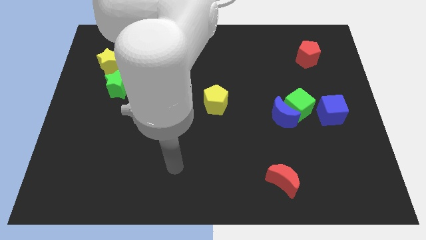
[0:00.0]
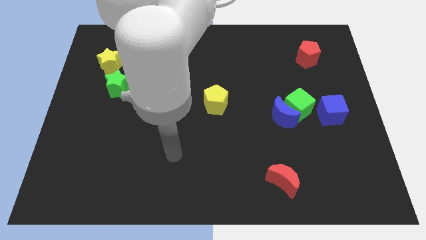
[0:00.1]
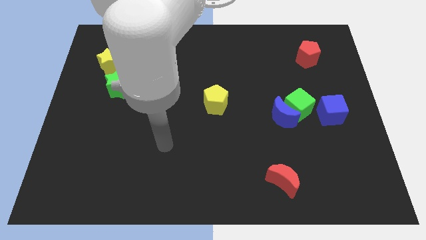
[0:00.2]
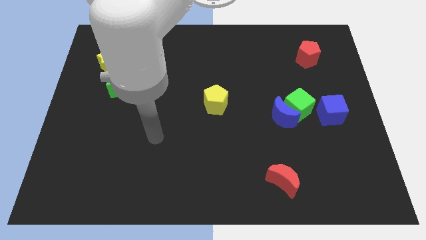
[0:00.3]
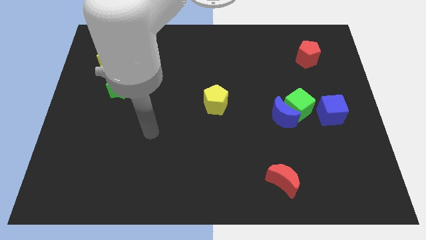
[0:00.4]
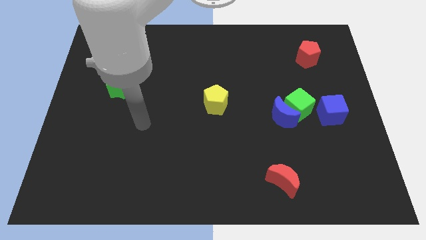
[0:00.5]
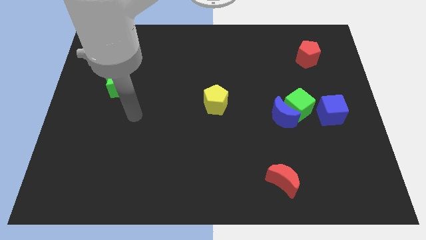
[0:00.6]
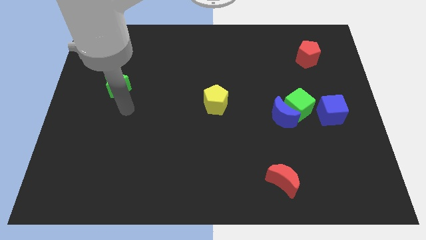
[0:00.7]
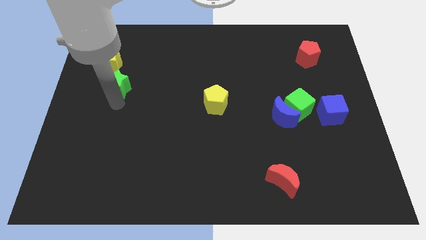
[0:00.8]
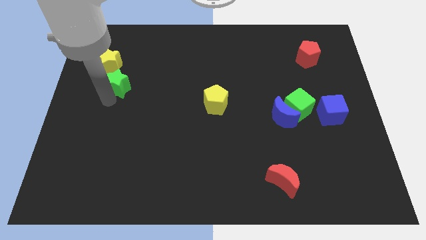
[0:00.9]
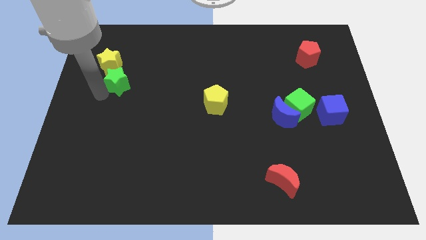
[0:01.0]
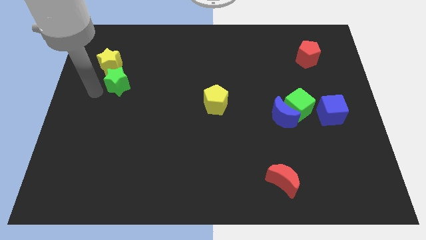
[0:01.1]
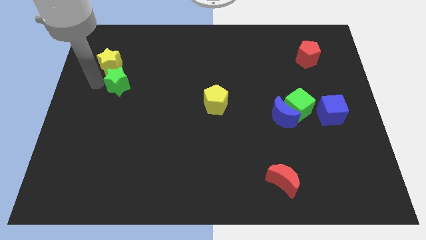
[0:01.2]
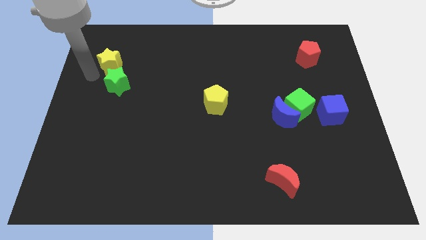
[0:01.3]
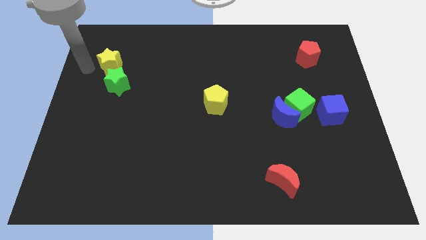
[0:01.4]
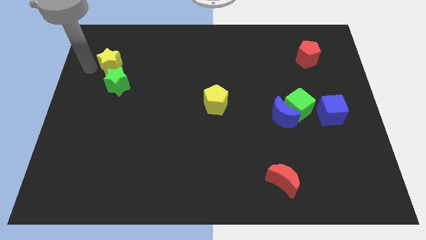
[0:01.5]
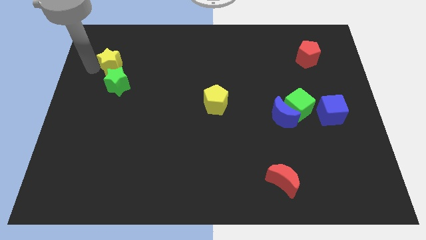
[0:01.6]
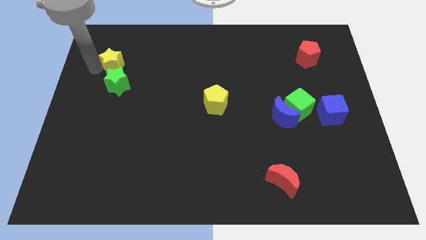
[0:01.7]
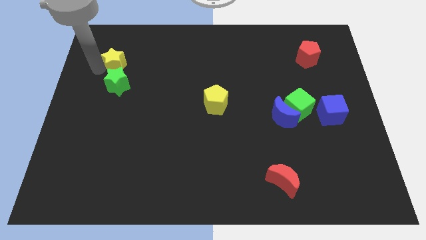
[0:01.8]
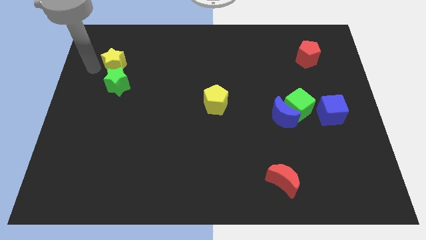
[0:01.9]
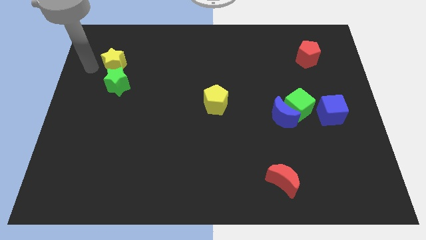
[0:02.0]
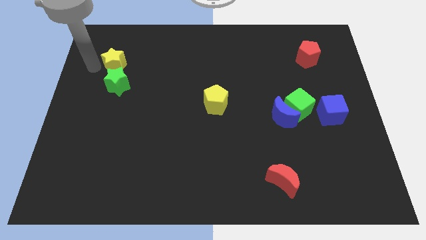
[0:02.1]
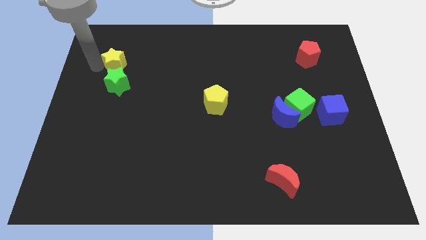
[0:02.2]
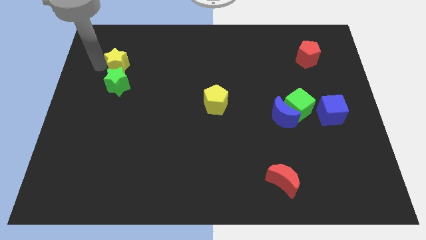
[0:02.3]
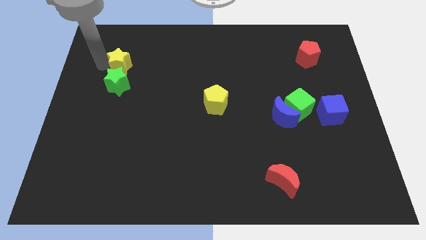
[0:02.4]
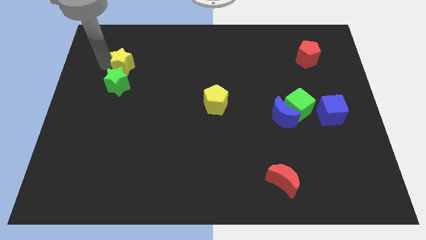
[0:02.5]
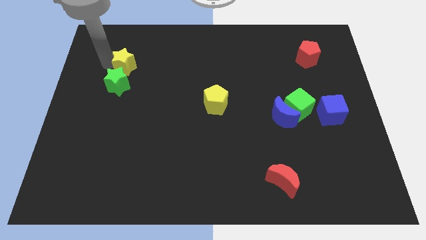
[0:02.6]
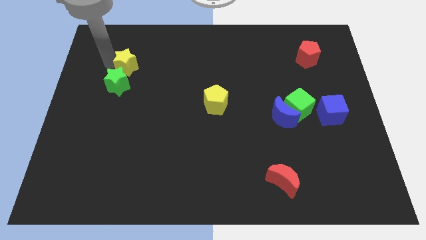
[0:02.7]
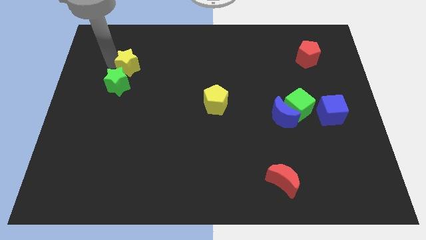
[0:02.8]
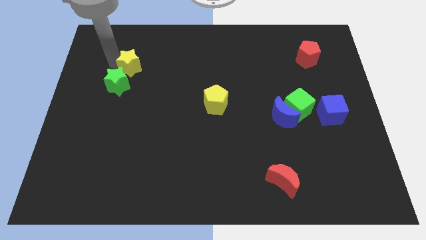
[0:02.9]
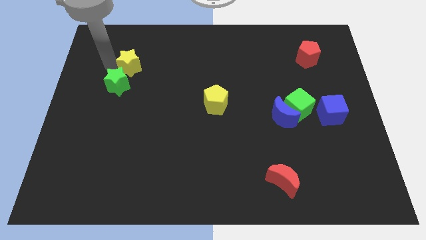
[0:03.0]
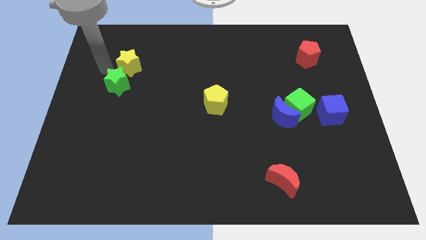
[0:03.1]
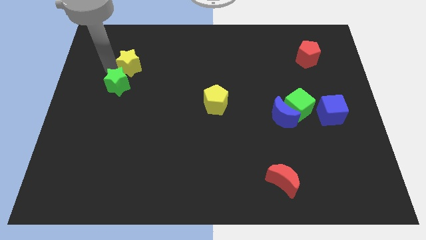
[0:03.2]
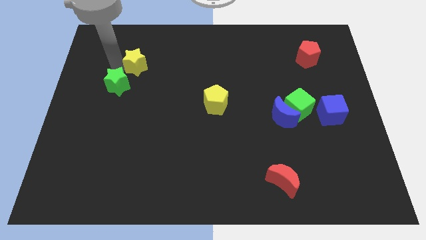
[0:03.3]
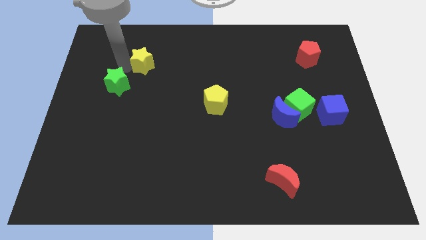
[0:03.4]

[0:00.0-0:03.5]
push the yellow star right a little

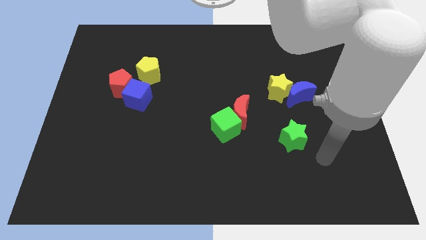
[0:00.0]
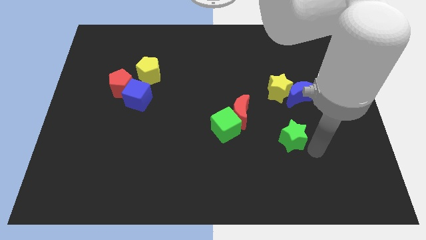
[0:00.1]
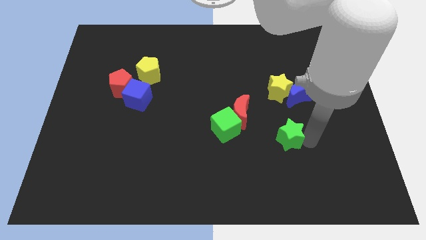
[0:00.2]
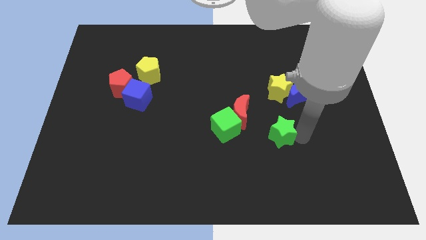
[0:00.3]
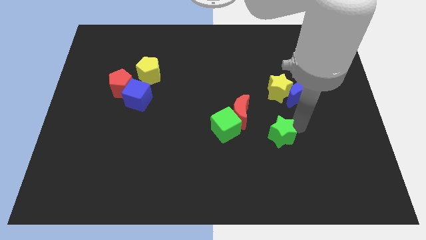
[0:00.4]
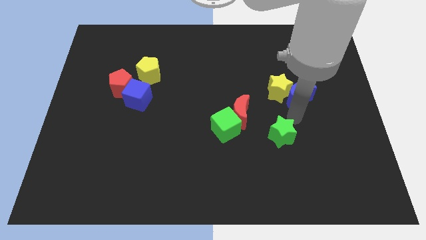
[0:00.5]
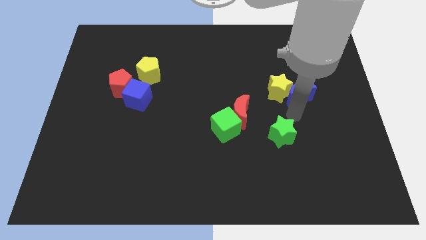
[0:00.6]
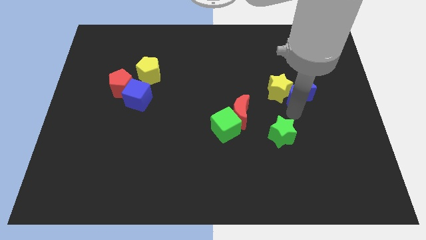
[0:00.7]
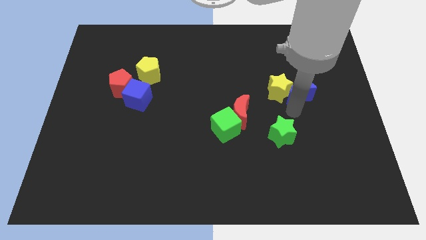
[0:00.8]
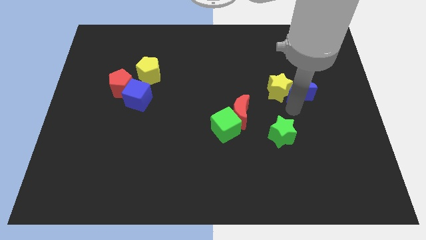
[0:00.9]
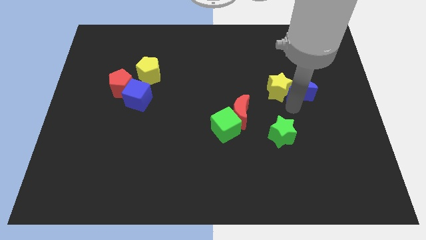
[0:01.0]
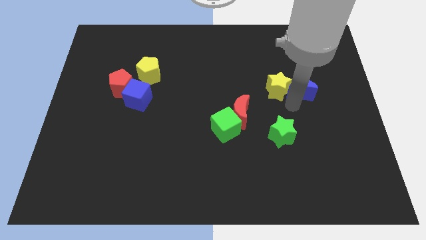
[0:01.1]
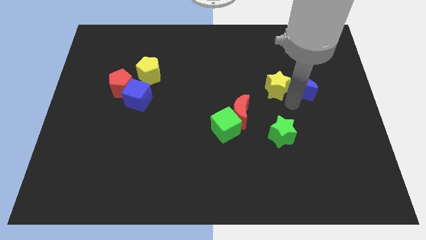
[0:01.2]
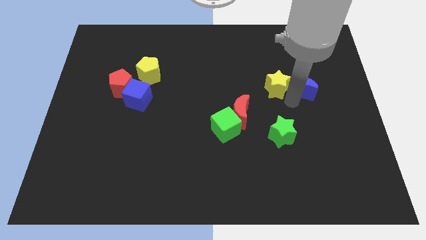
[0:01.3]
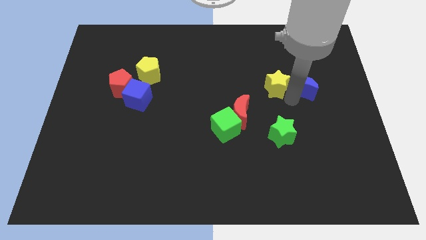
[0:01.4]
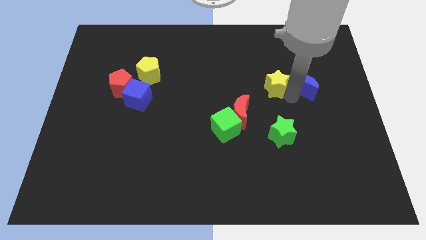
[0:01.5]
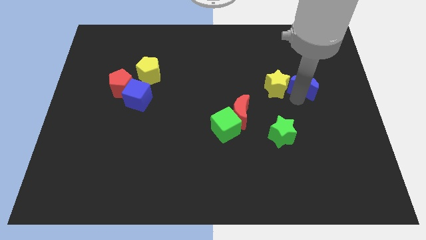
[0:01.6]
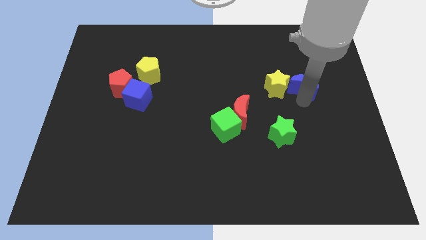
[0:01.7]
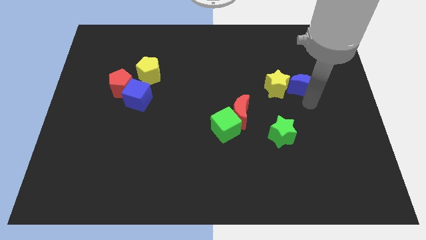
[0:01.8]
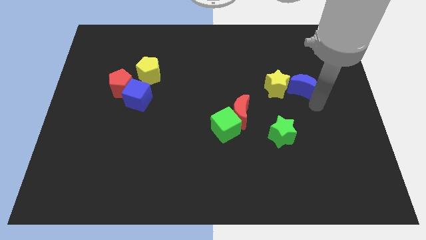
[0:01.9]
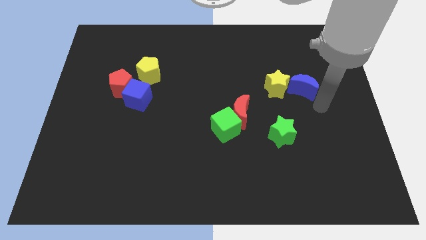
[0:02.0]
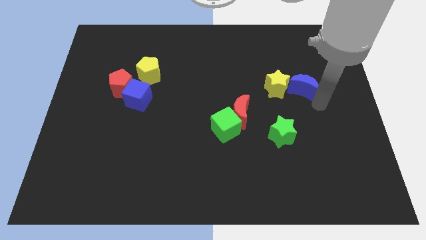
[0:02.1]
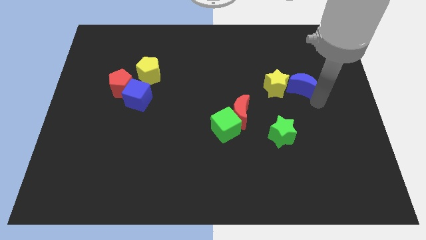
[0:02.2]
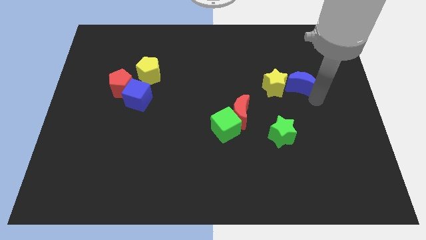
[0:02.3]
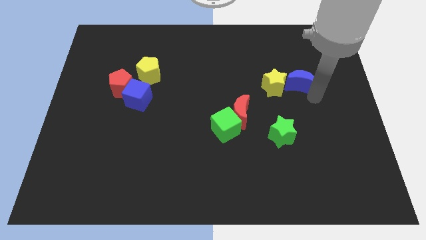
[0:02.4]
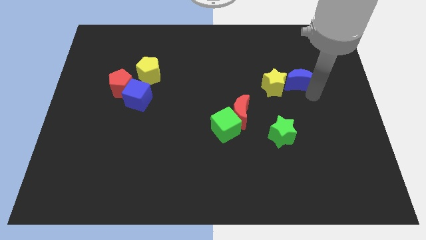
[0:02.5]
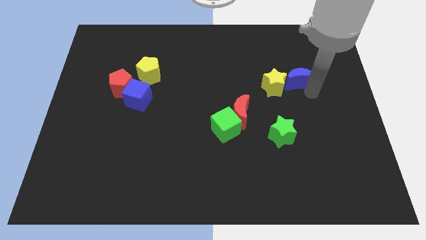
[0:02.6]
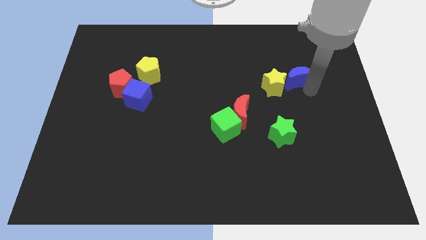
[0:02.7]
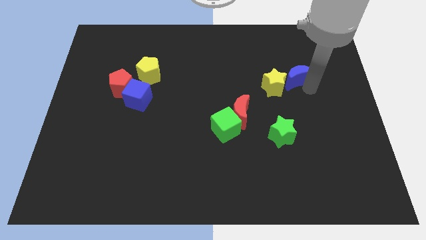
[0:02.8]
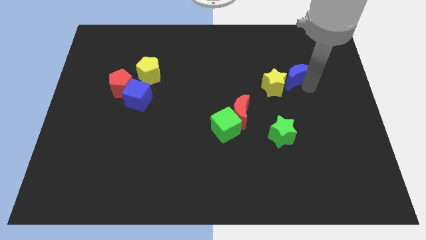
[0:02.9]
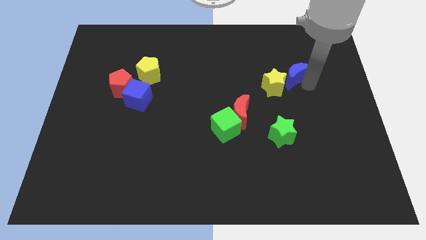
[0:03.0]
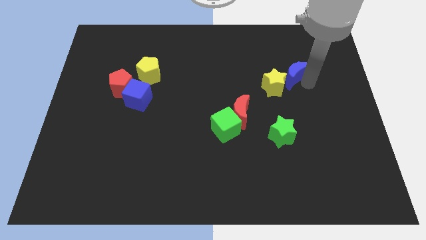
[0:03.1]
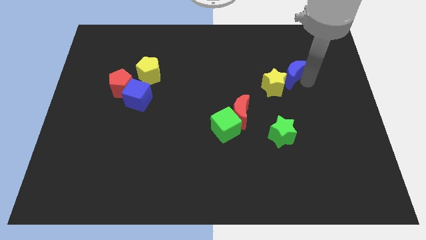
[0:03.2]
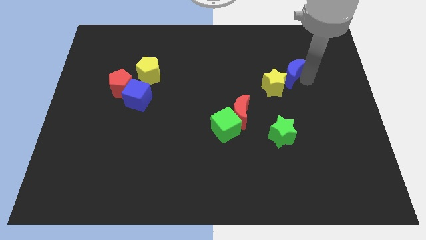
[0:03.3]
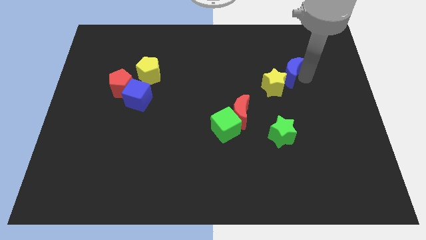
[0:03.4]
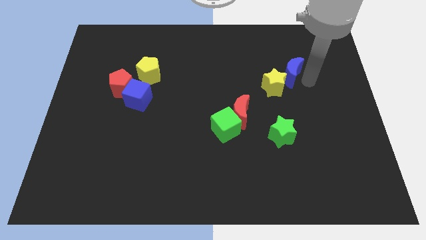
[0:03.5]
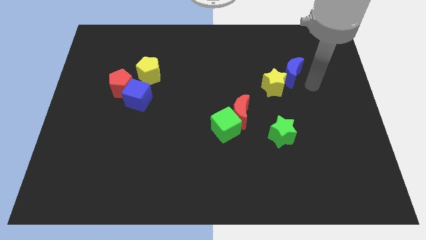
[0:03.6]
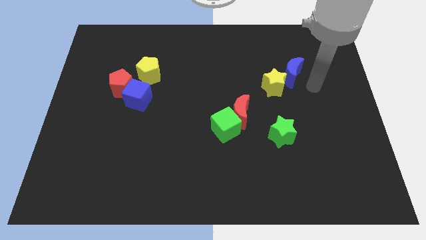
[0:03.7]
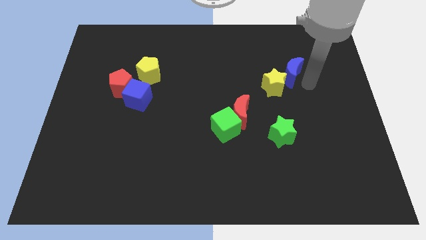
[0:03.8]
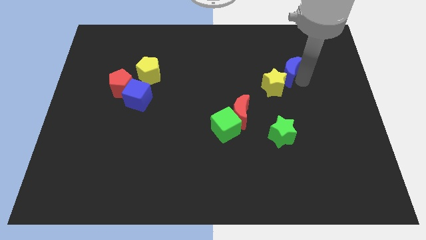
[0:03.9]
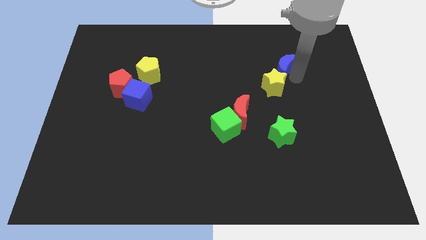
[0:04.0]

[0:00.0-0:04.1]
move the blue moon a bit upwards and then to the left

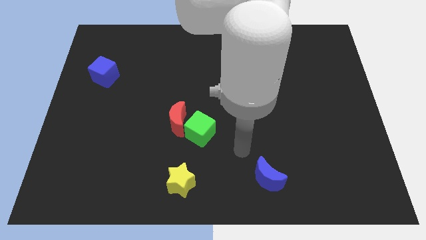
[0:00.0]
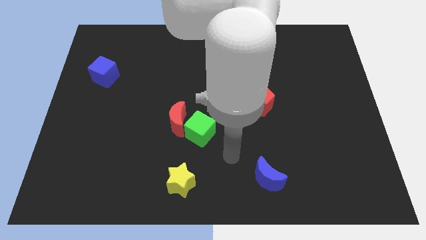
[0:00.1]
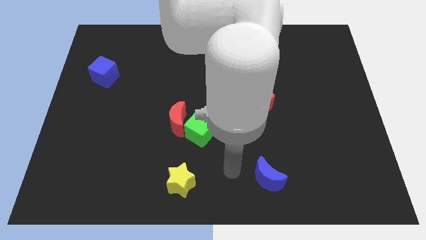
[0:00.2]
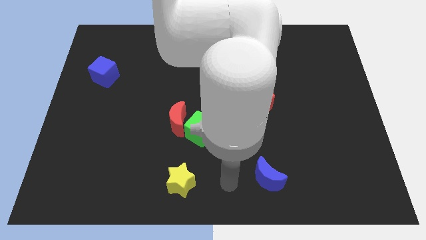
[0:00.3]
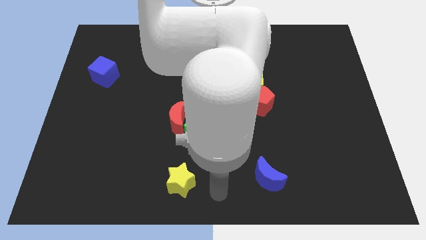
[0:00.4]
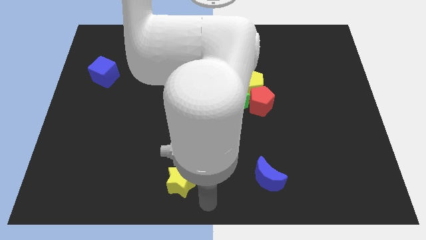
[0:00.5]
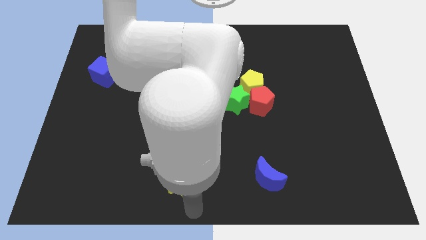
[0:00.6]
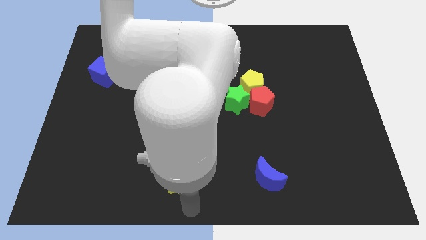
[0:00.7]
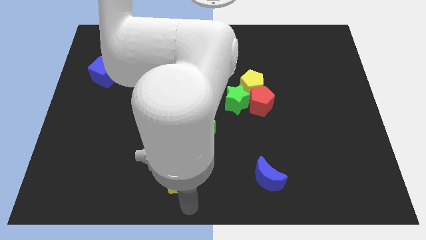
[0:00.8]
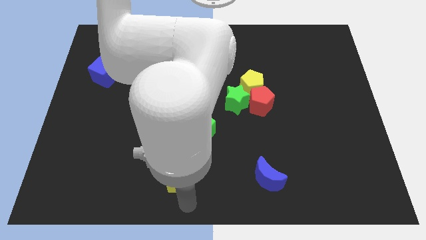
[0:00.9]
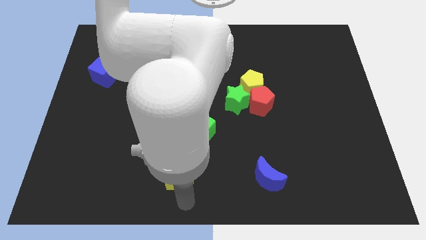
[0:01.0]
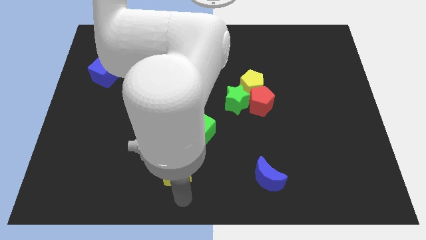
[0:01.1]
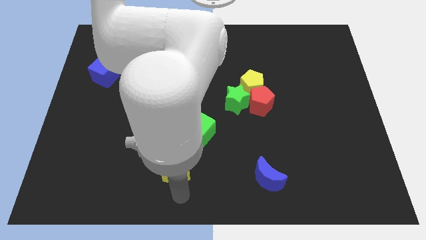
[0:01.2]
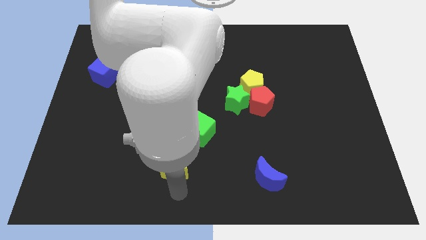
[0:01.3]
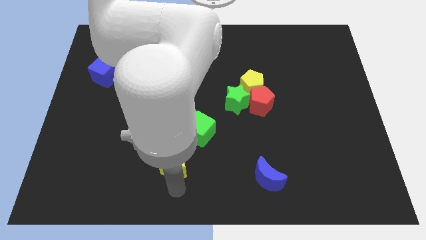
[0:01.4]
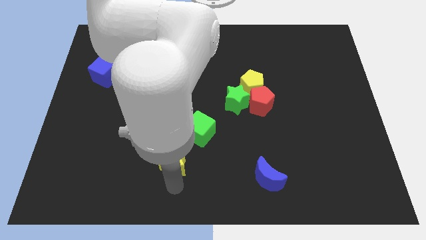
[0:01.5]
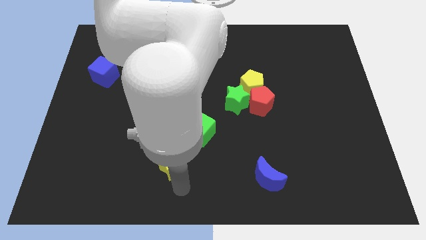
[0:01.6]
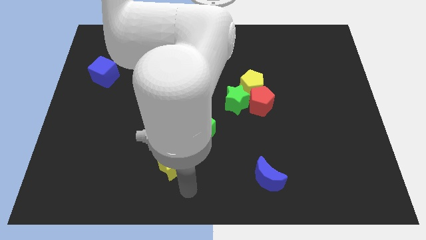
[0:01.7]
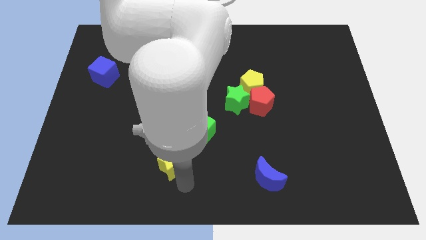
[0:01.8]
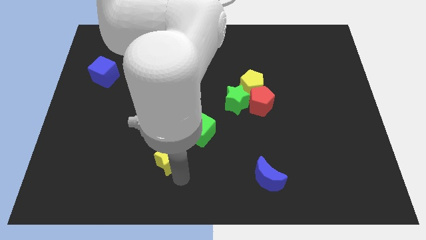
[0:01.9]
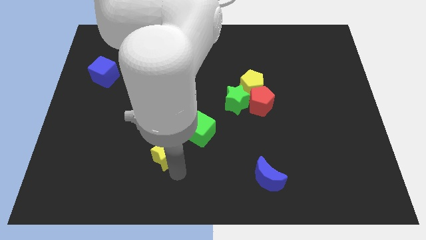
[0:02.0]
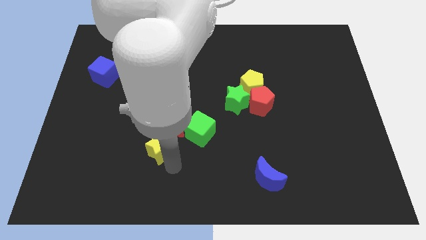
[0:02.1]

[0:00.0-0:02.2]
push the yellow star a little upwards
